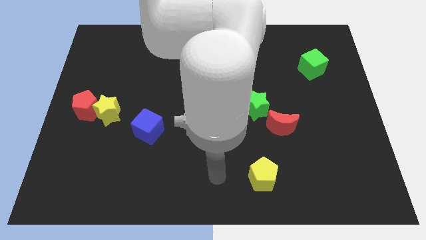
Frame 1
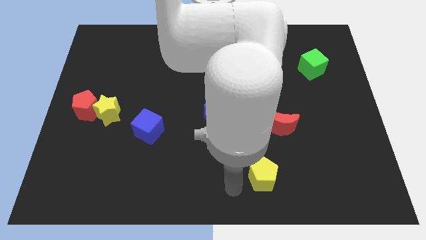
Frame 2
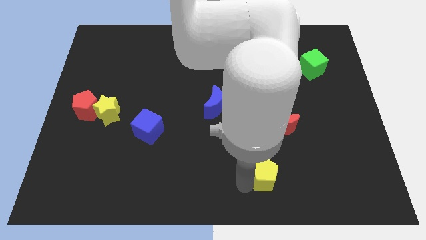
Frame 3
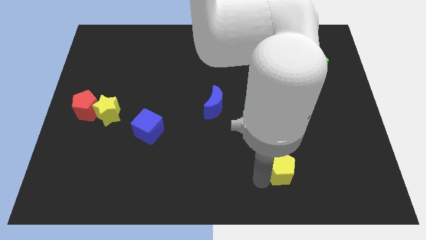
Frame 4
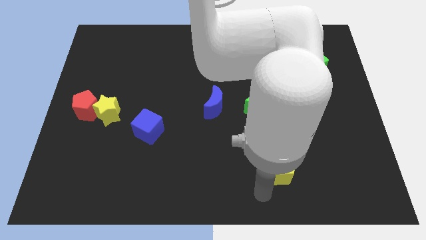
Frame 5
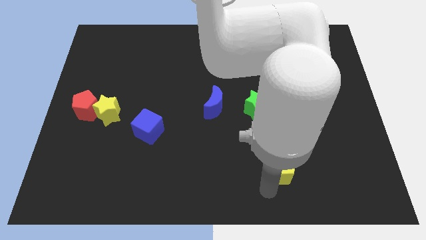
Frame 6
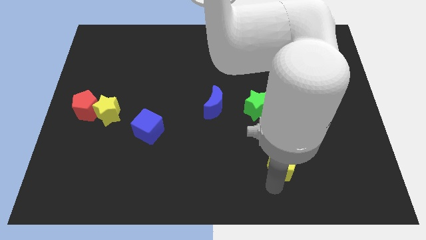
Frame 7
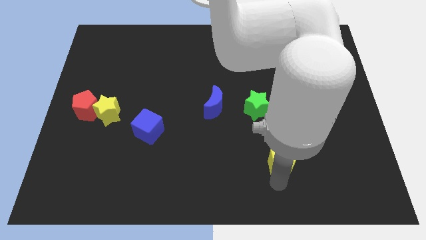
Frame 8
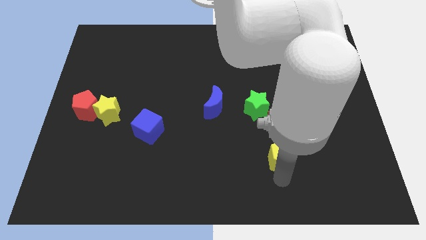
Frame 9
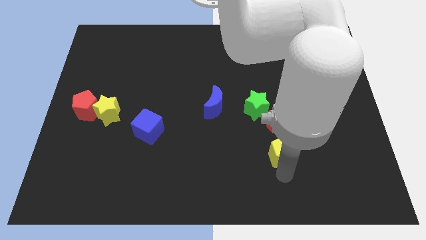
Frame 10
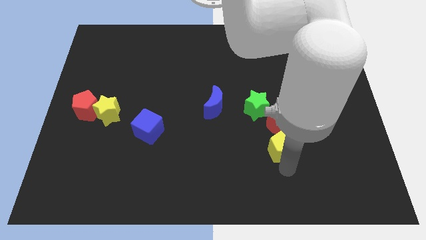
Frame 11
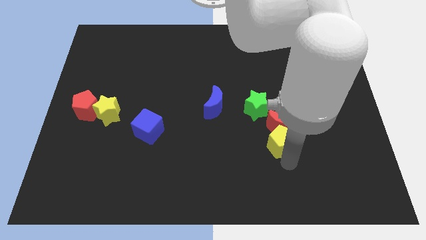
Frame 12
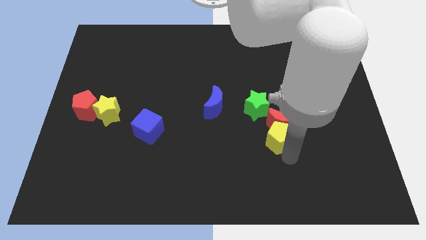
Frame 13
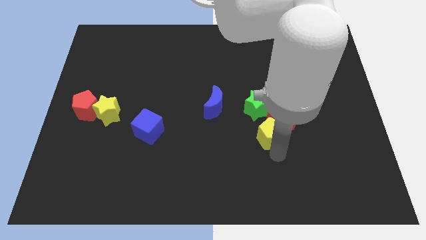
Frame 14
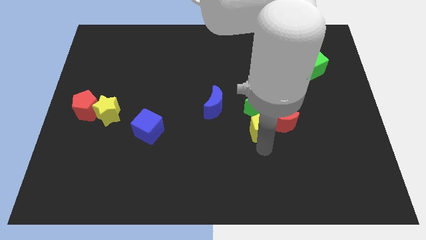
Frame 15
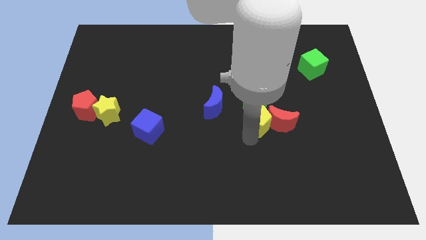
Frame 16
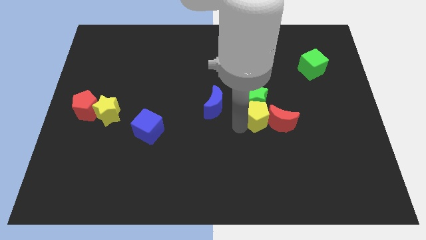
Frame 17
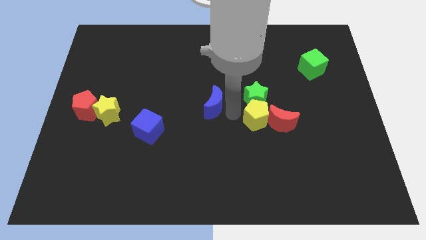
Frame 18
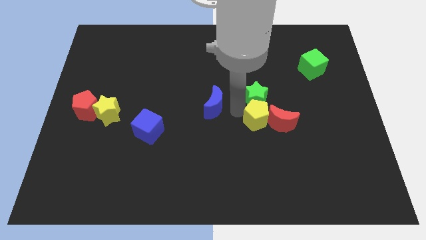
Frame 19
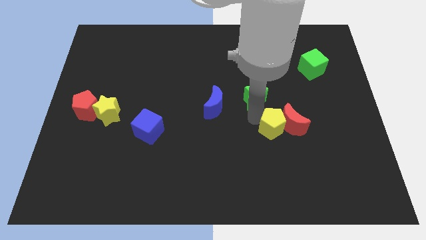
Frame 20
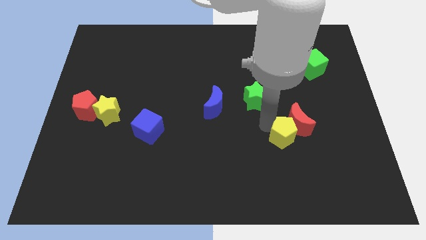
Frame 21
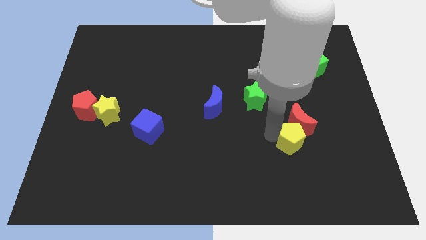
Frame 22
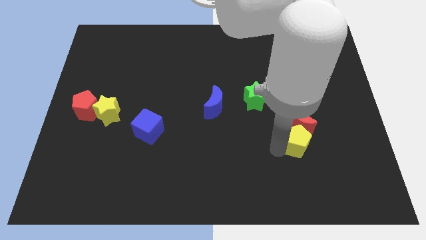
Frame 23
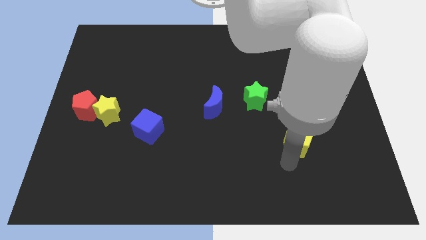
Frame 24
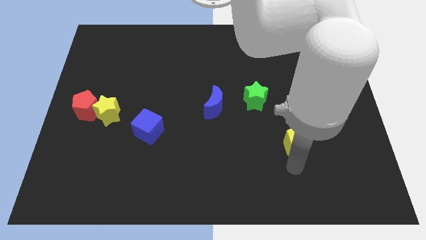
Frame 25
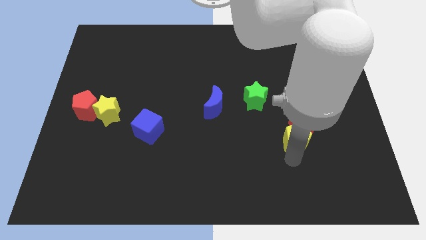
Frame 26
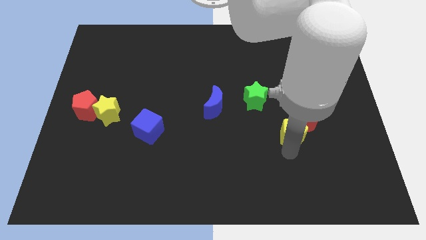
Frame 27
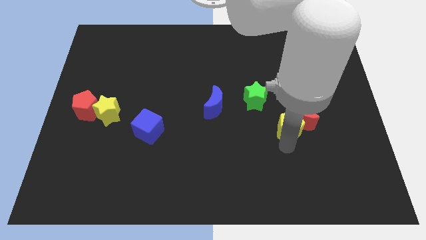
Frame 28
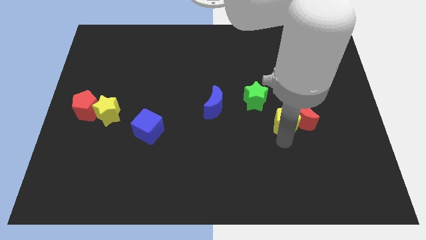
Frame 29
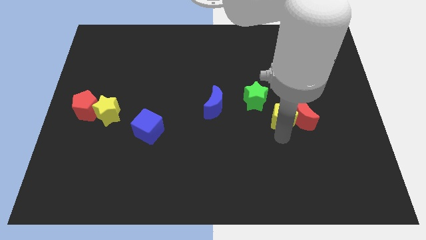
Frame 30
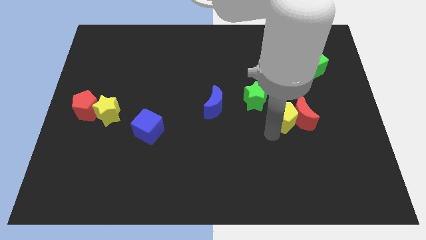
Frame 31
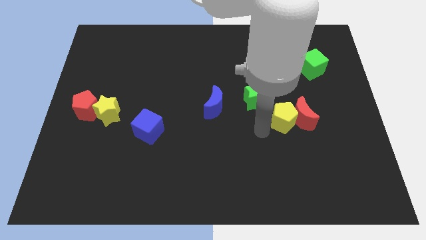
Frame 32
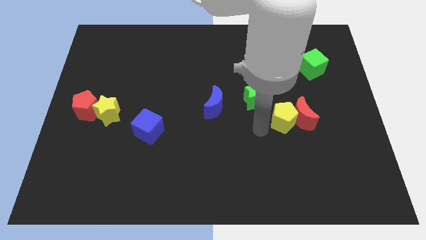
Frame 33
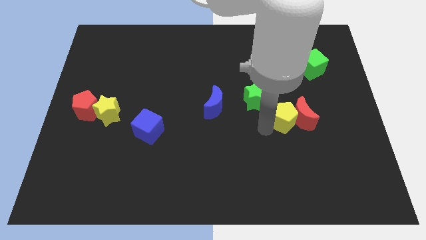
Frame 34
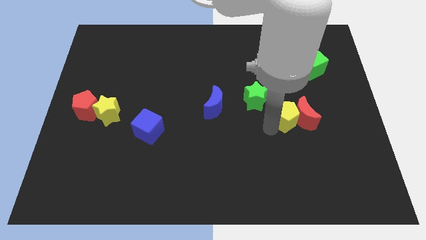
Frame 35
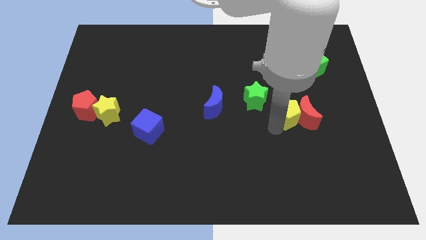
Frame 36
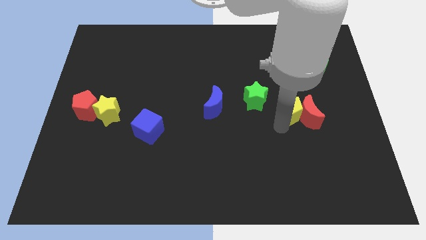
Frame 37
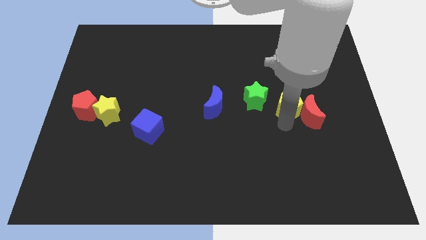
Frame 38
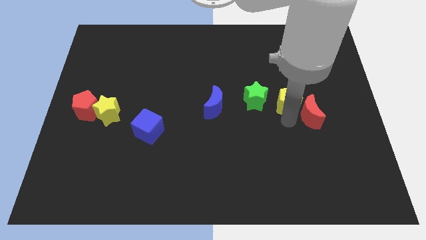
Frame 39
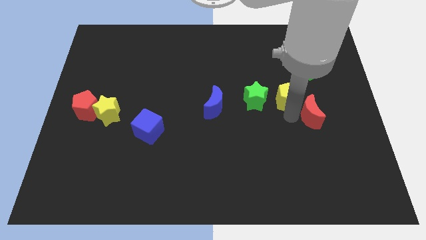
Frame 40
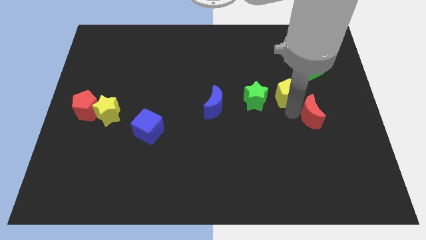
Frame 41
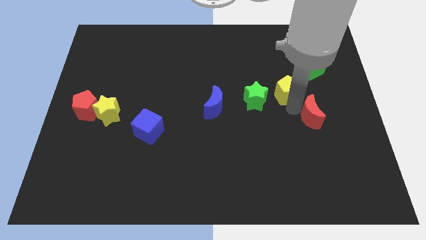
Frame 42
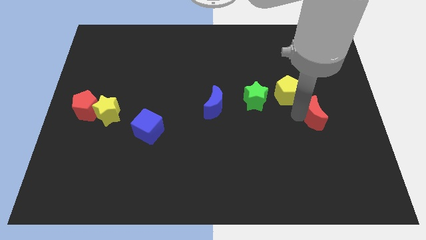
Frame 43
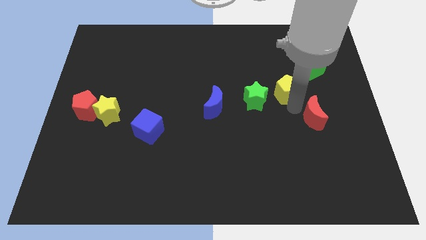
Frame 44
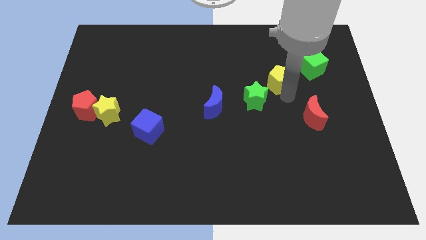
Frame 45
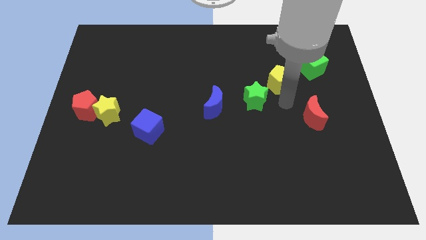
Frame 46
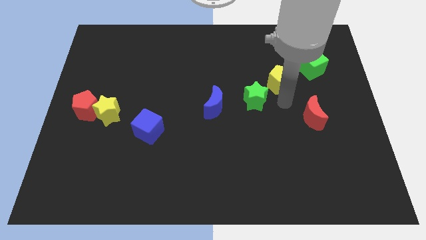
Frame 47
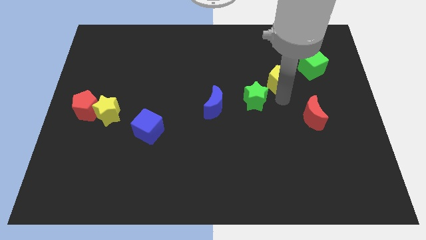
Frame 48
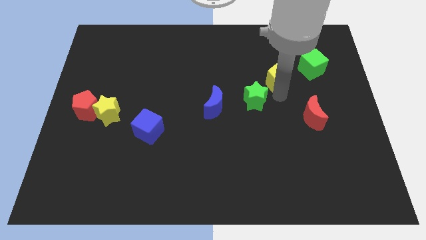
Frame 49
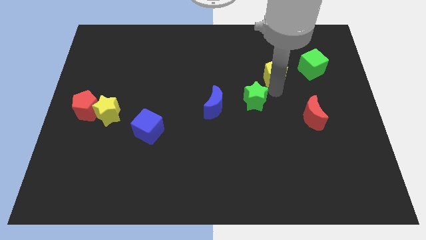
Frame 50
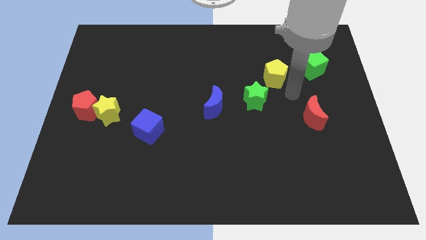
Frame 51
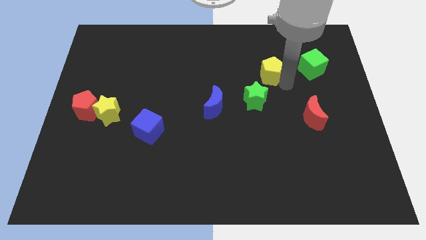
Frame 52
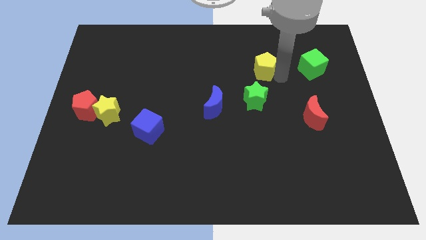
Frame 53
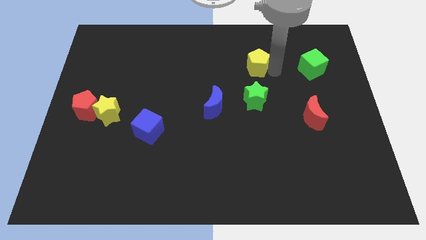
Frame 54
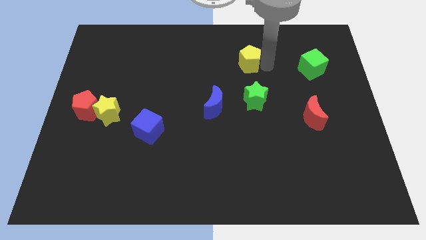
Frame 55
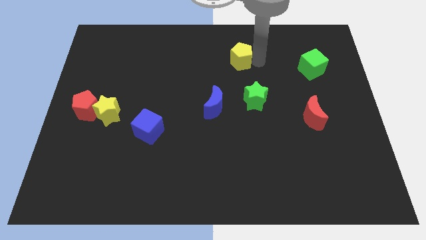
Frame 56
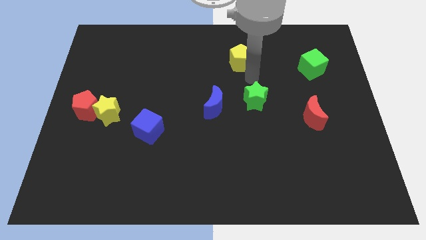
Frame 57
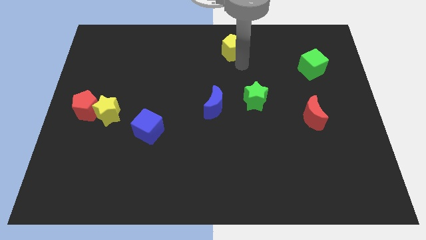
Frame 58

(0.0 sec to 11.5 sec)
move the yellow pentagon to the top side
